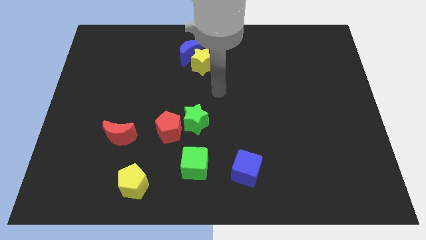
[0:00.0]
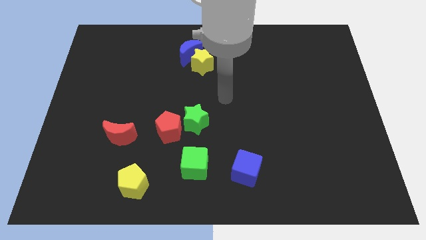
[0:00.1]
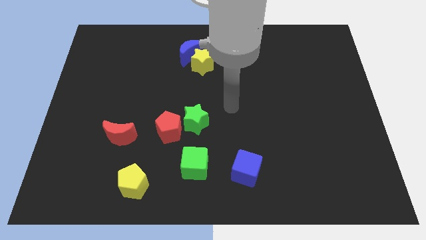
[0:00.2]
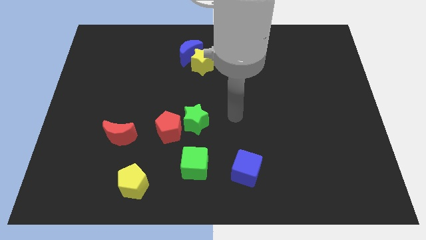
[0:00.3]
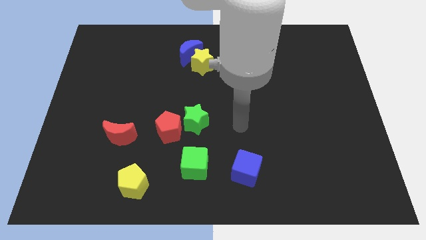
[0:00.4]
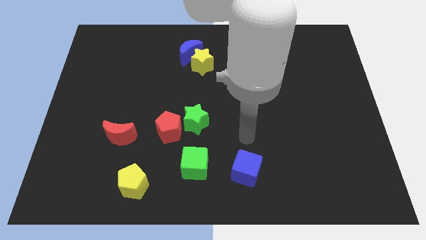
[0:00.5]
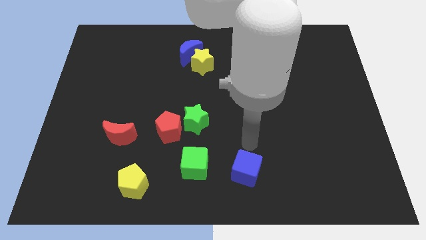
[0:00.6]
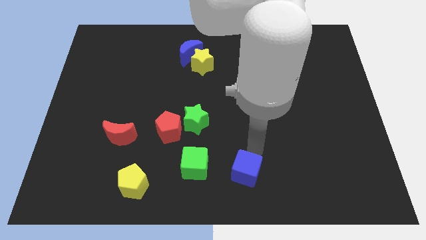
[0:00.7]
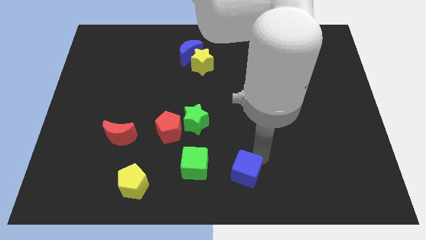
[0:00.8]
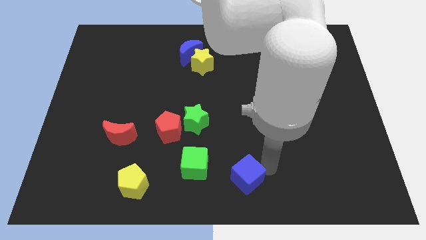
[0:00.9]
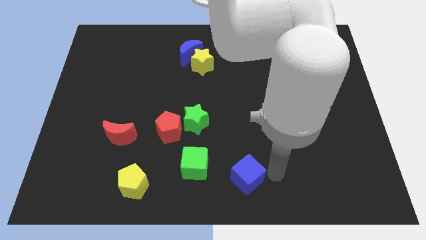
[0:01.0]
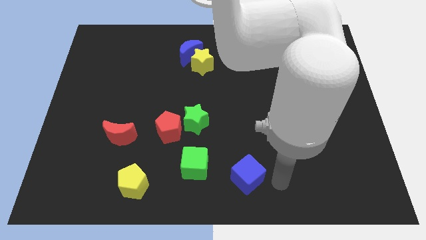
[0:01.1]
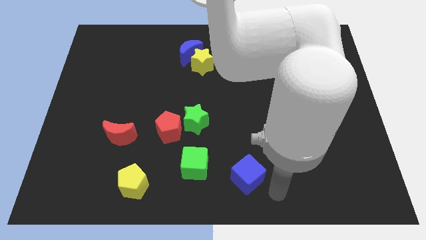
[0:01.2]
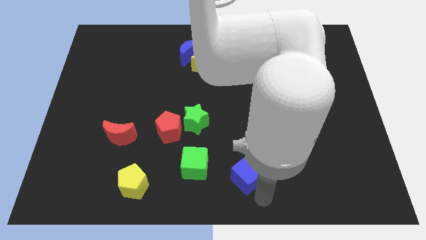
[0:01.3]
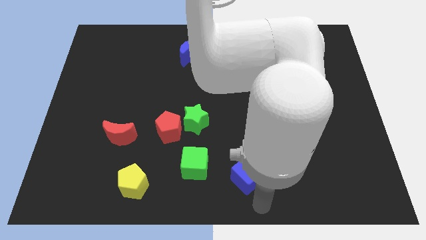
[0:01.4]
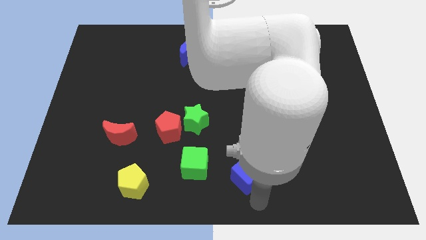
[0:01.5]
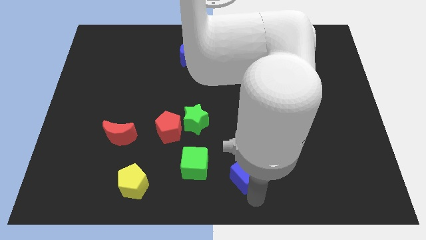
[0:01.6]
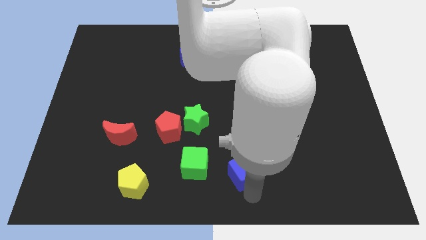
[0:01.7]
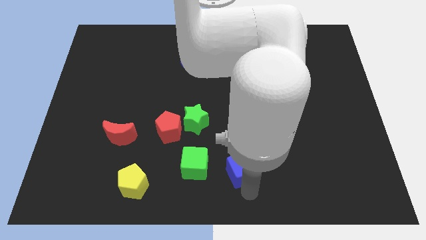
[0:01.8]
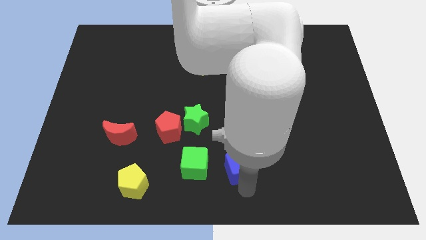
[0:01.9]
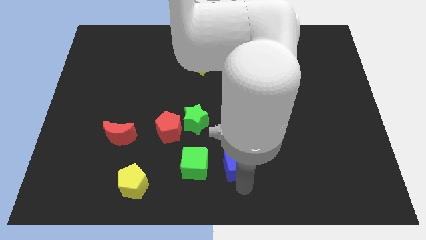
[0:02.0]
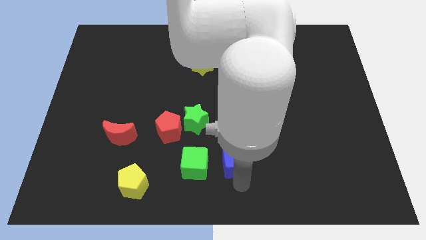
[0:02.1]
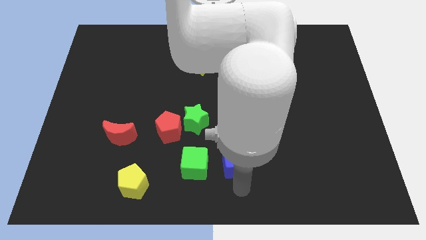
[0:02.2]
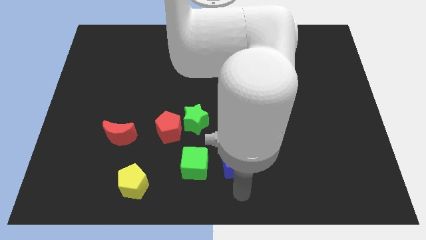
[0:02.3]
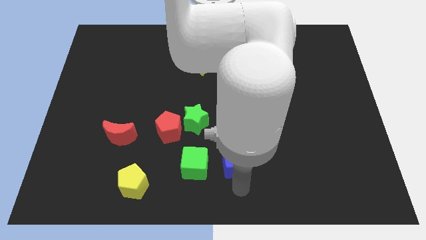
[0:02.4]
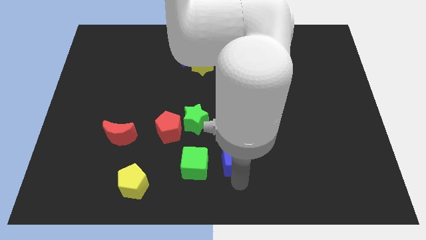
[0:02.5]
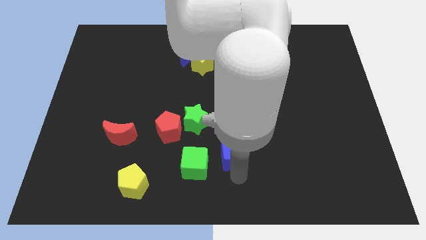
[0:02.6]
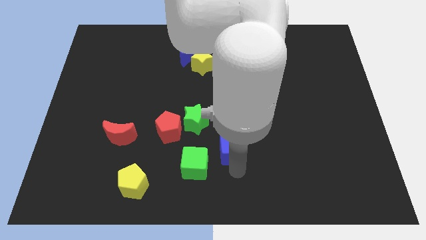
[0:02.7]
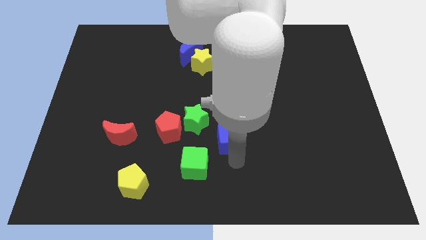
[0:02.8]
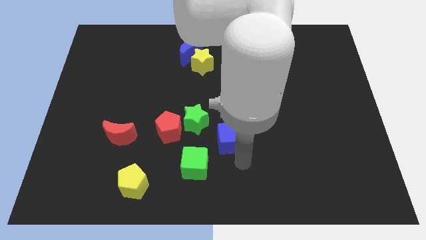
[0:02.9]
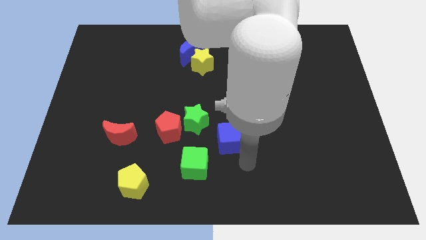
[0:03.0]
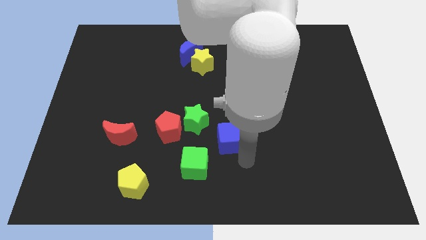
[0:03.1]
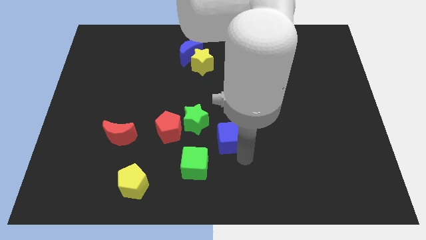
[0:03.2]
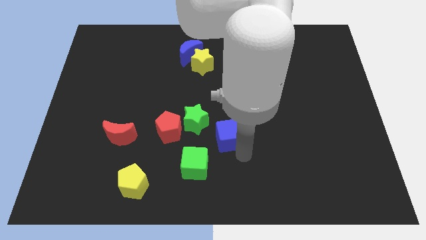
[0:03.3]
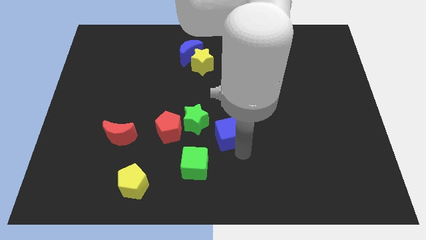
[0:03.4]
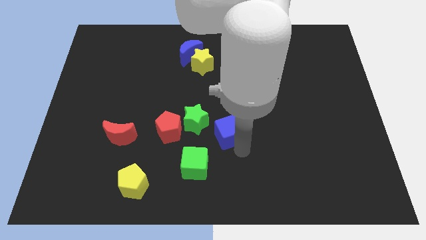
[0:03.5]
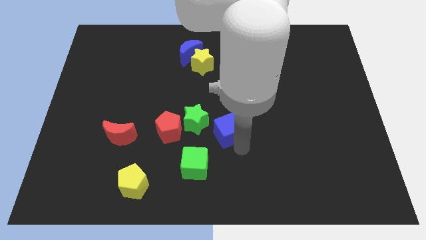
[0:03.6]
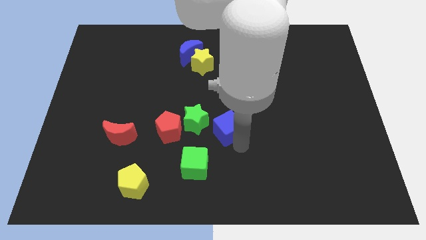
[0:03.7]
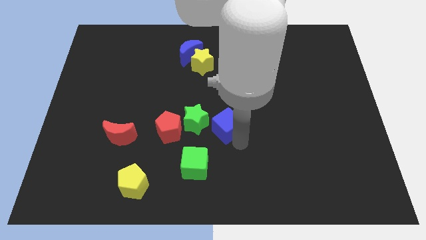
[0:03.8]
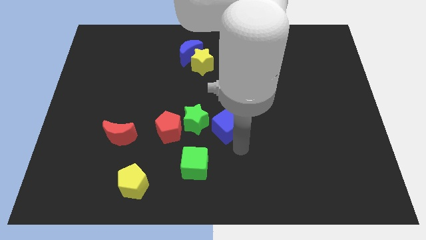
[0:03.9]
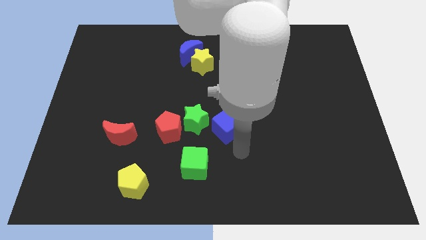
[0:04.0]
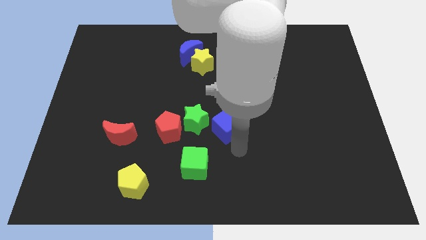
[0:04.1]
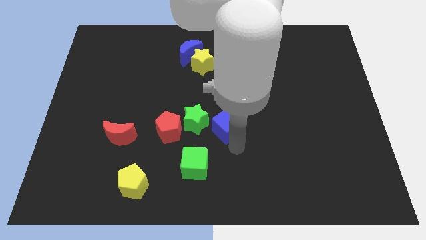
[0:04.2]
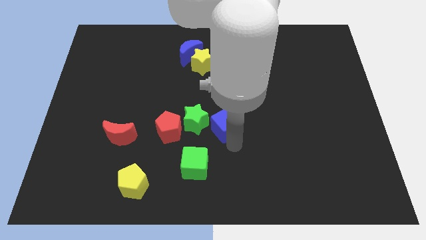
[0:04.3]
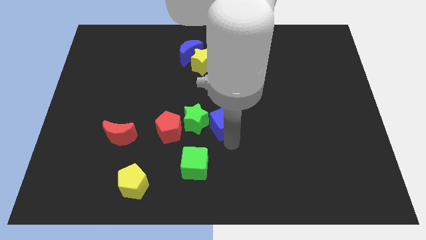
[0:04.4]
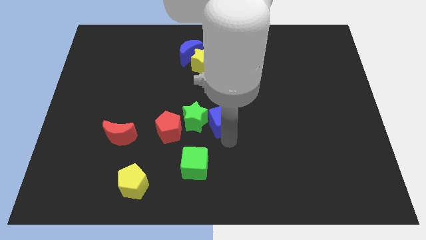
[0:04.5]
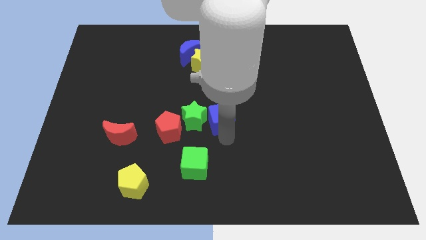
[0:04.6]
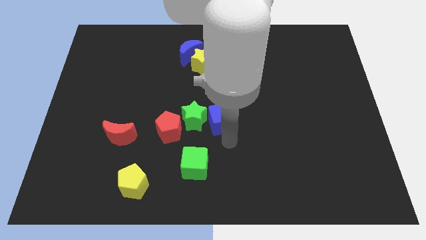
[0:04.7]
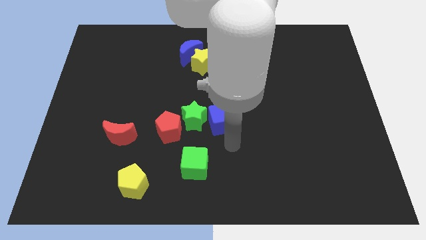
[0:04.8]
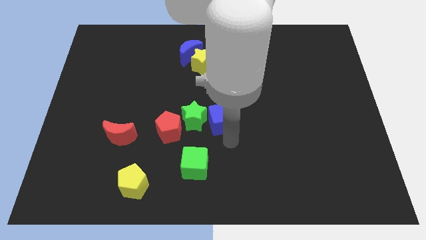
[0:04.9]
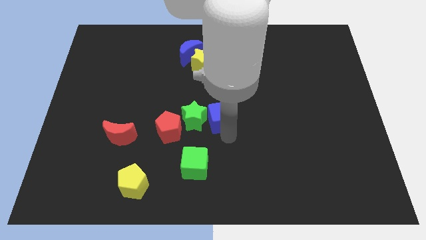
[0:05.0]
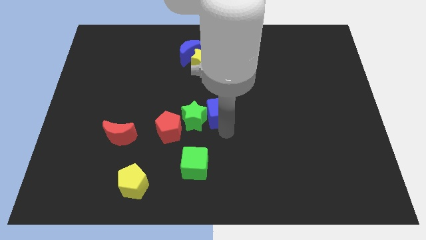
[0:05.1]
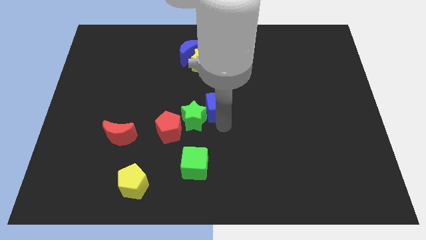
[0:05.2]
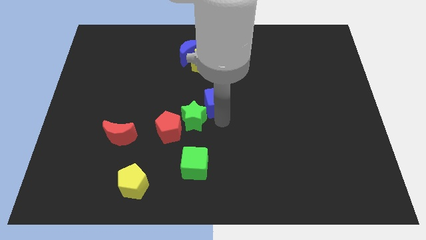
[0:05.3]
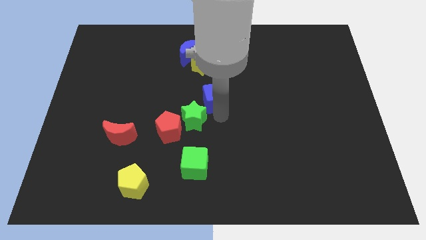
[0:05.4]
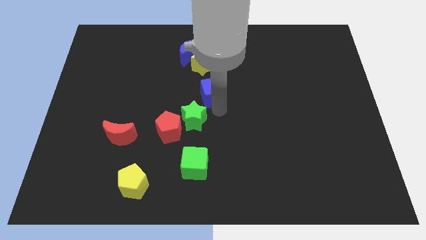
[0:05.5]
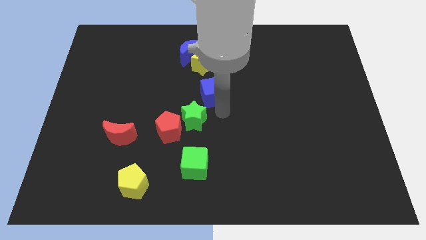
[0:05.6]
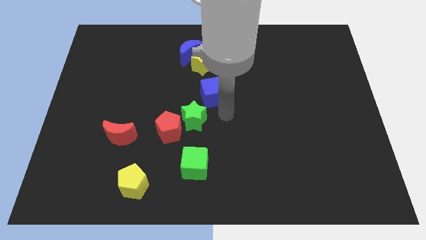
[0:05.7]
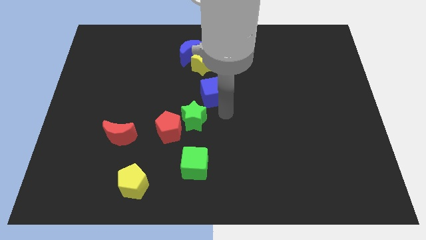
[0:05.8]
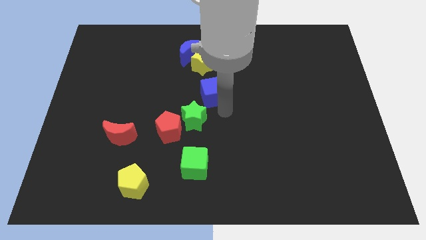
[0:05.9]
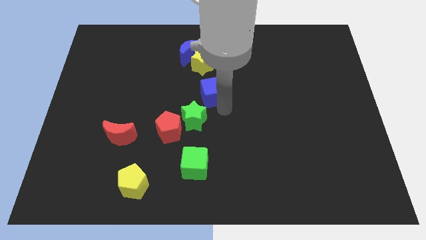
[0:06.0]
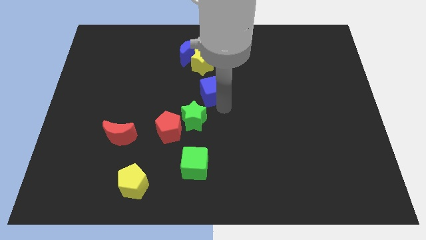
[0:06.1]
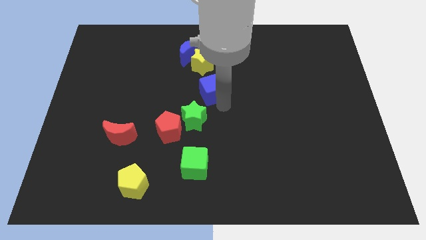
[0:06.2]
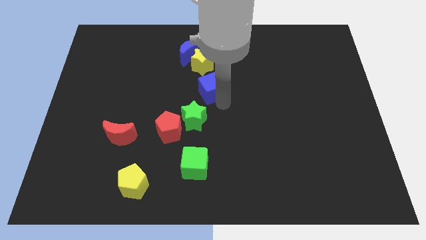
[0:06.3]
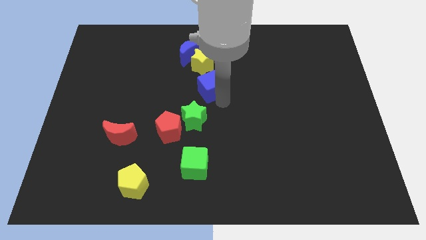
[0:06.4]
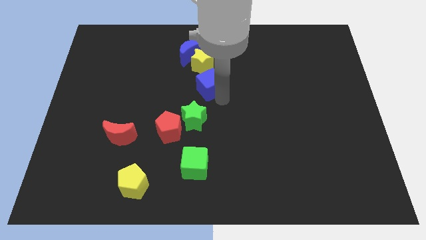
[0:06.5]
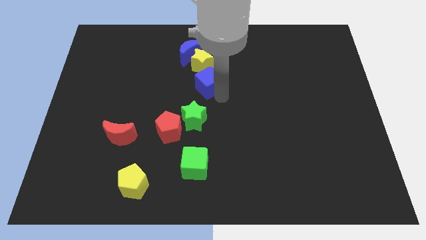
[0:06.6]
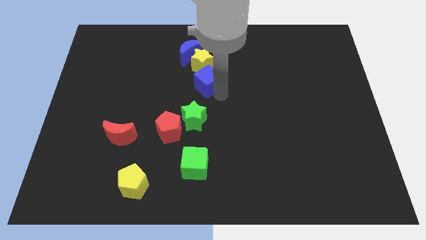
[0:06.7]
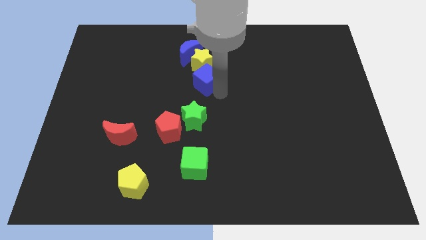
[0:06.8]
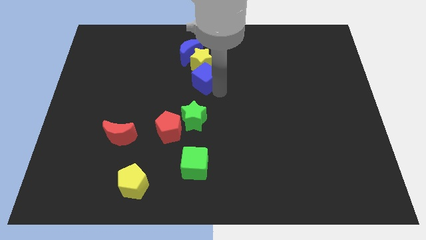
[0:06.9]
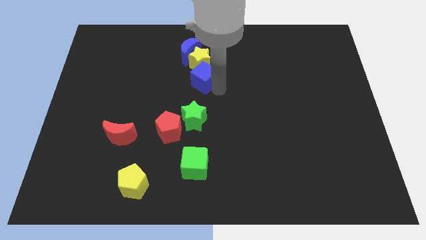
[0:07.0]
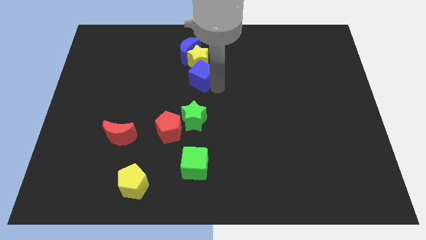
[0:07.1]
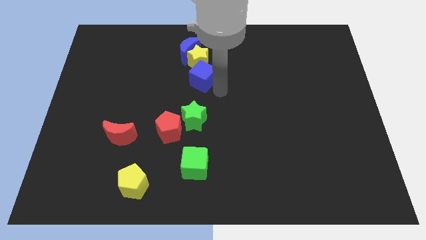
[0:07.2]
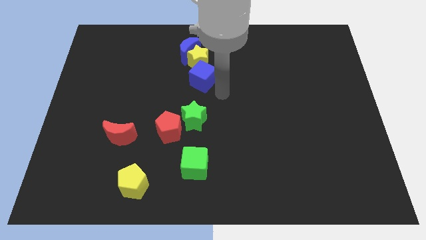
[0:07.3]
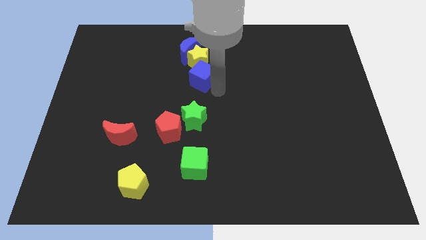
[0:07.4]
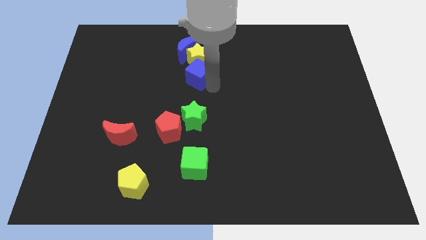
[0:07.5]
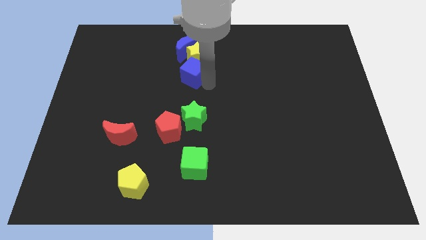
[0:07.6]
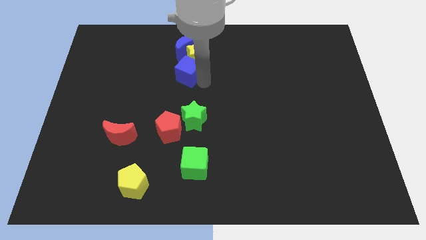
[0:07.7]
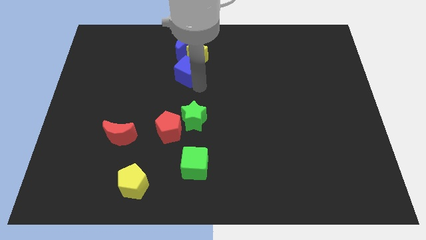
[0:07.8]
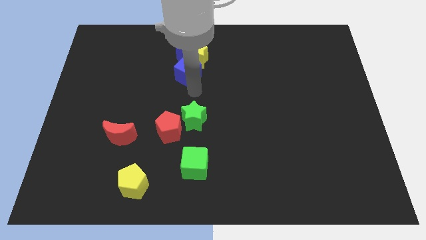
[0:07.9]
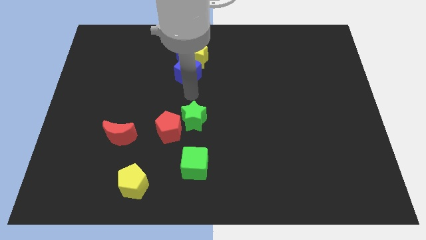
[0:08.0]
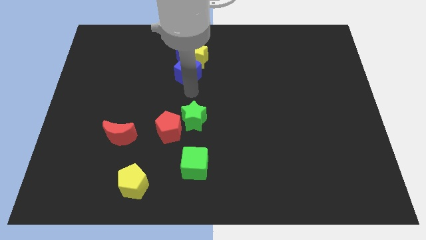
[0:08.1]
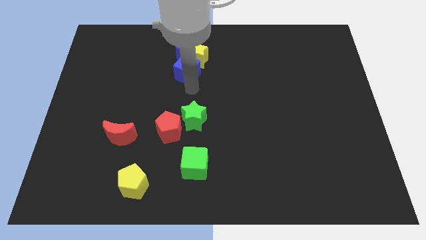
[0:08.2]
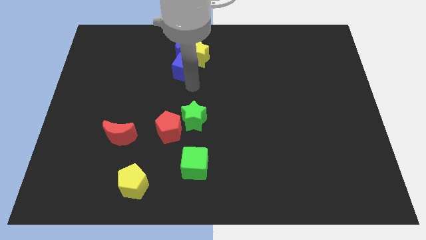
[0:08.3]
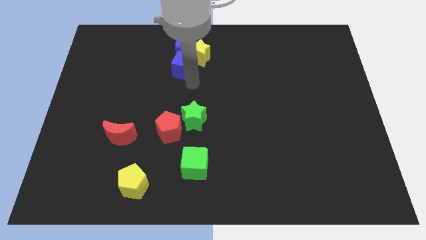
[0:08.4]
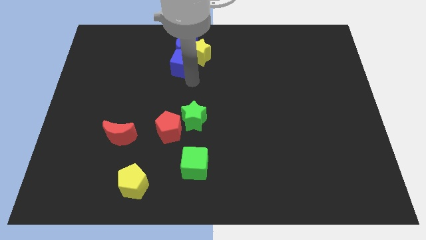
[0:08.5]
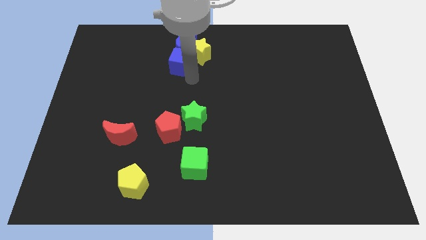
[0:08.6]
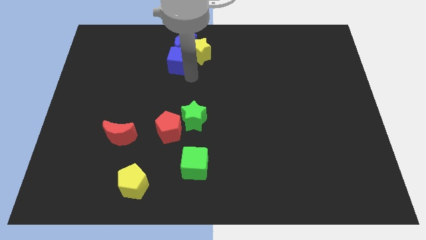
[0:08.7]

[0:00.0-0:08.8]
push the blue cube next to the blue moon
